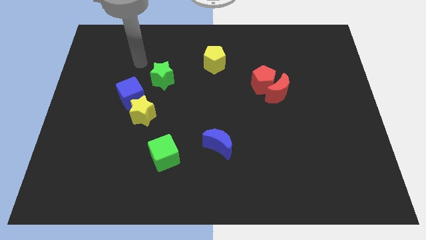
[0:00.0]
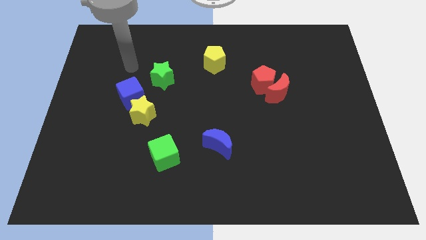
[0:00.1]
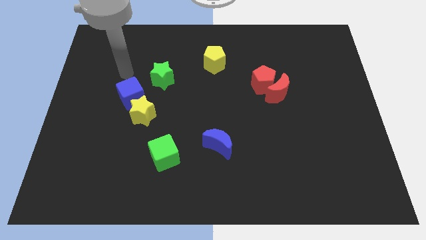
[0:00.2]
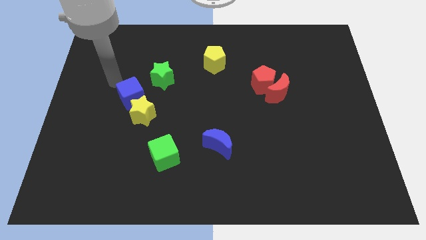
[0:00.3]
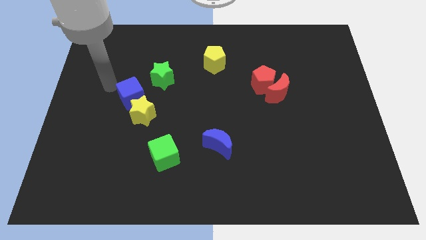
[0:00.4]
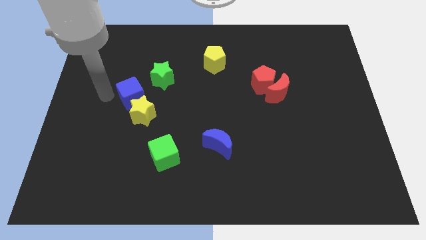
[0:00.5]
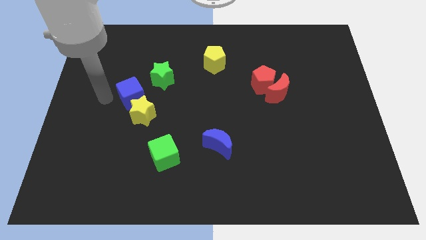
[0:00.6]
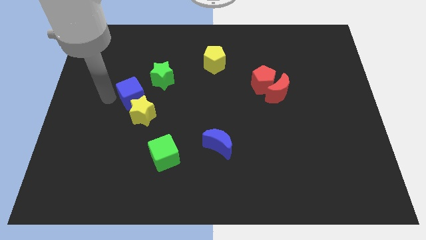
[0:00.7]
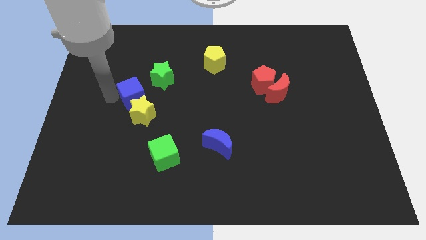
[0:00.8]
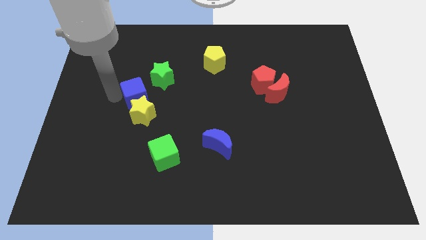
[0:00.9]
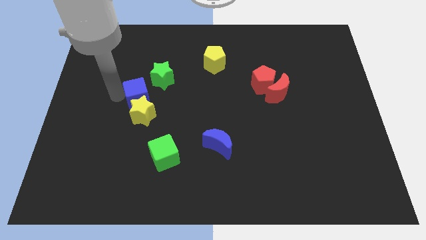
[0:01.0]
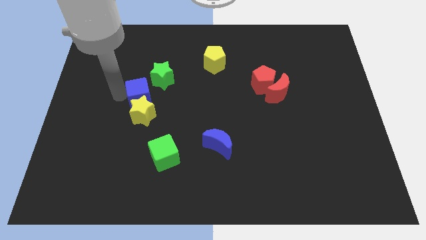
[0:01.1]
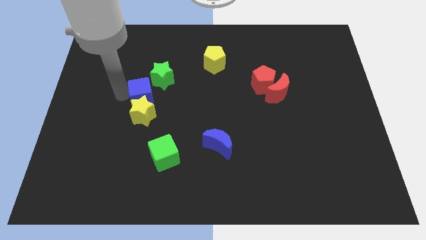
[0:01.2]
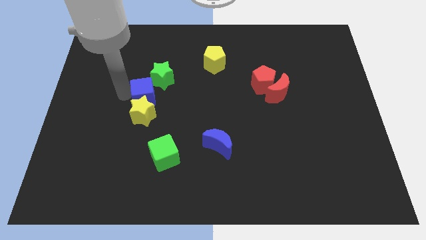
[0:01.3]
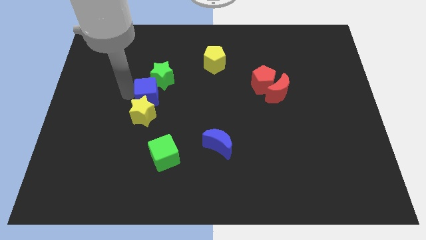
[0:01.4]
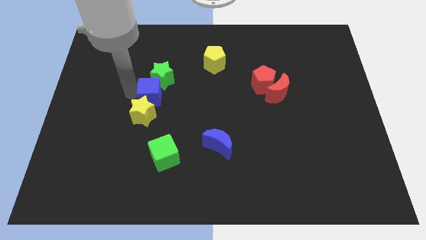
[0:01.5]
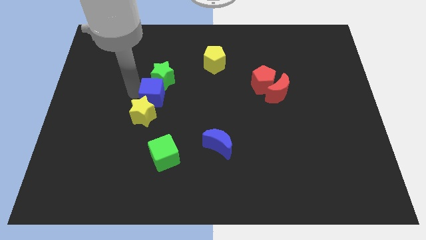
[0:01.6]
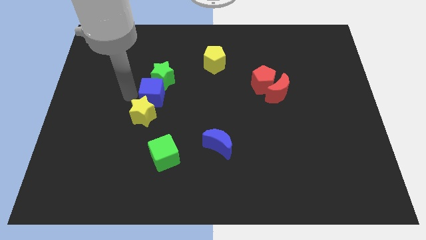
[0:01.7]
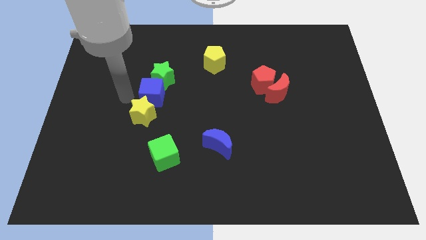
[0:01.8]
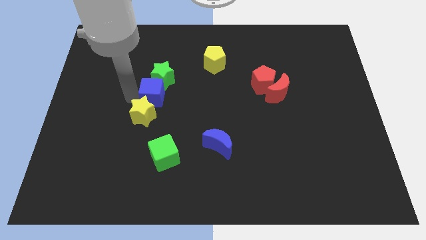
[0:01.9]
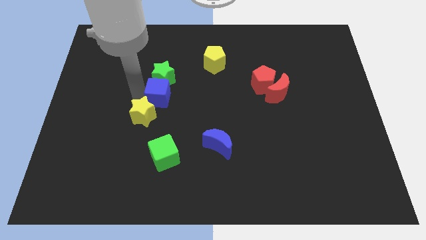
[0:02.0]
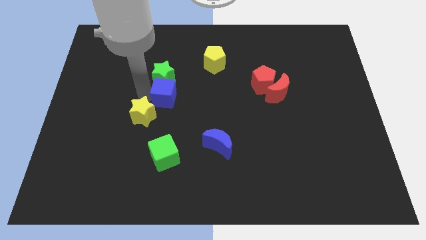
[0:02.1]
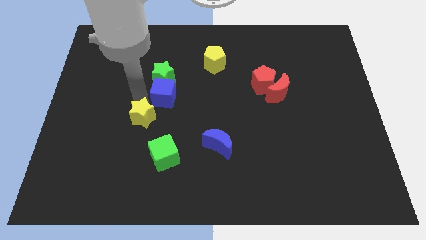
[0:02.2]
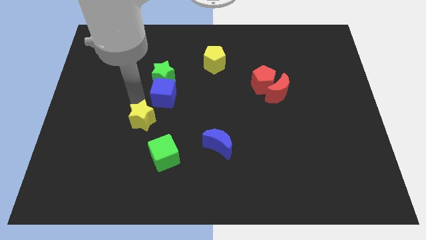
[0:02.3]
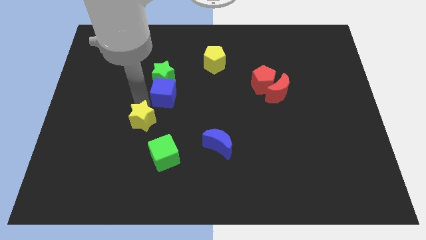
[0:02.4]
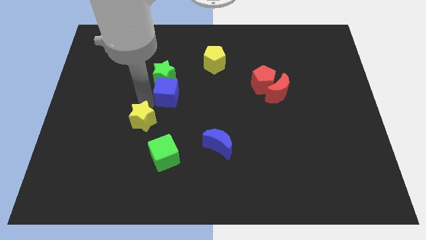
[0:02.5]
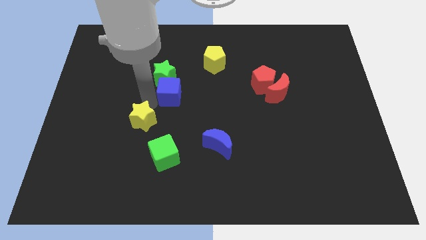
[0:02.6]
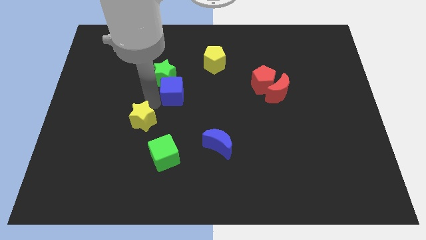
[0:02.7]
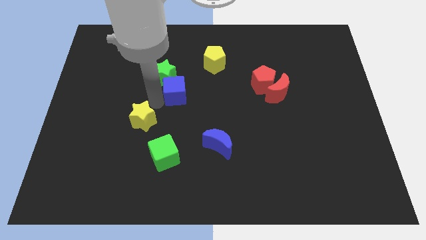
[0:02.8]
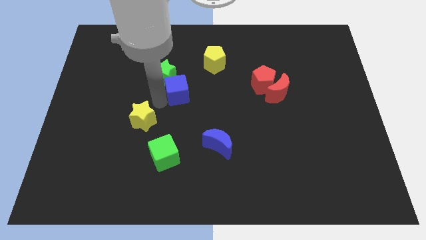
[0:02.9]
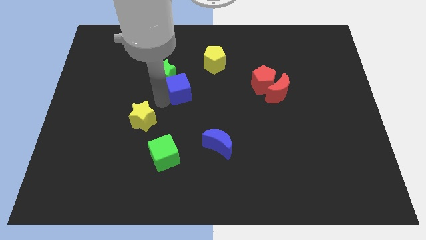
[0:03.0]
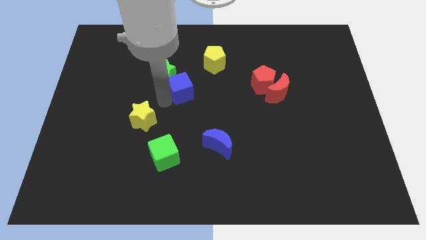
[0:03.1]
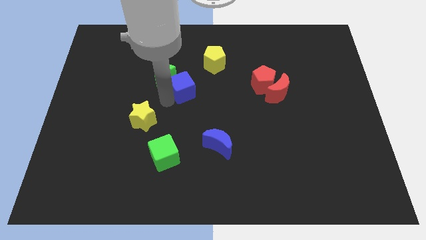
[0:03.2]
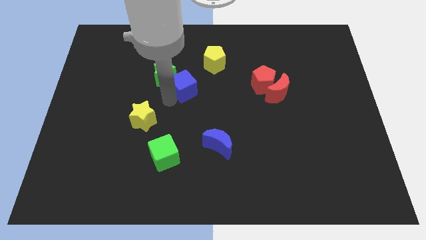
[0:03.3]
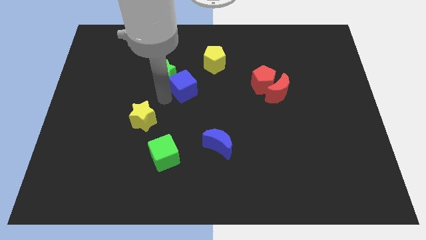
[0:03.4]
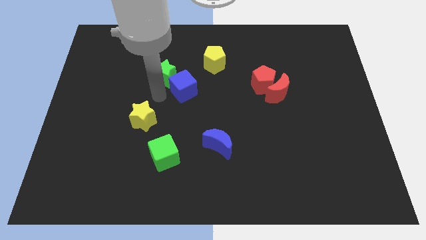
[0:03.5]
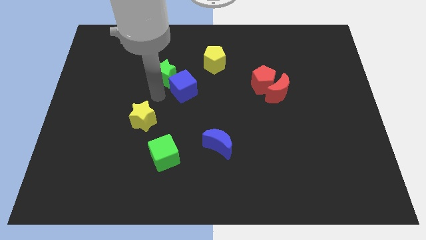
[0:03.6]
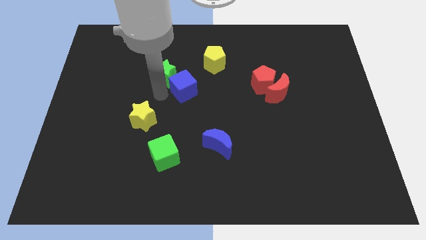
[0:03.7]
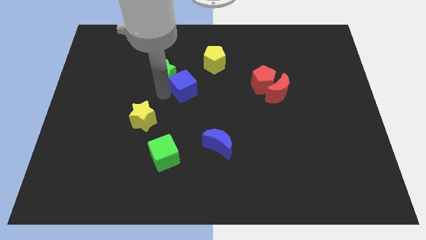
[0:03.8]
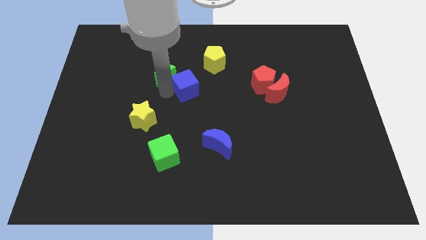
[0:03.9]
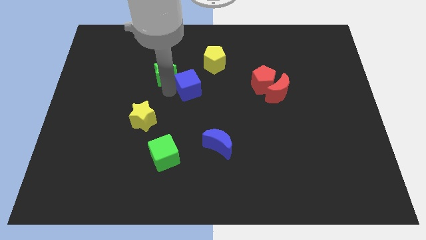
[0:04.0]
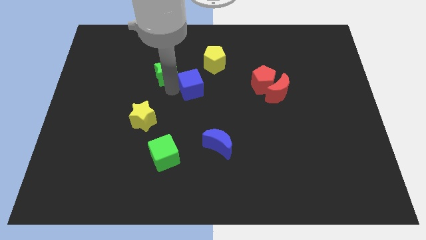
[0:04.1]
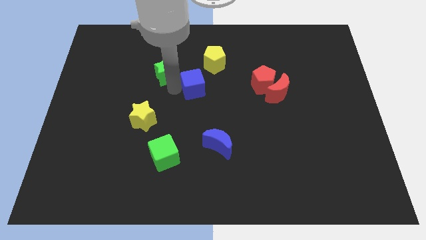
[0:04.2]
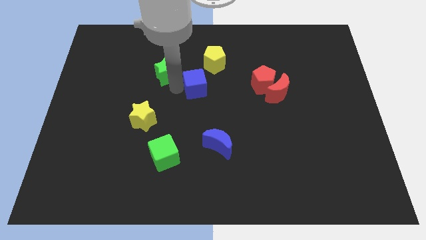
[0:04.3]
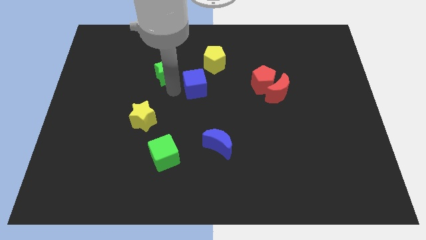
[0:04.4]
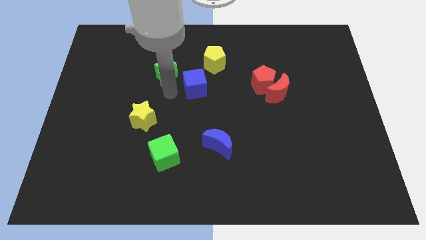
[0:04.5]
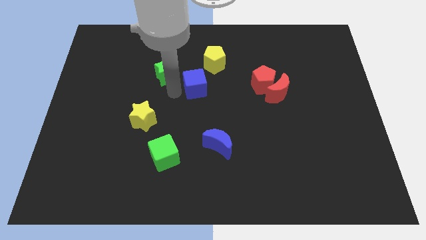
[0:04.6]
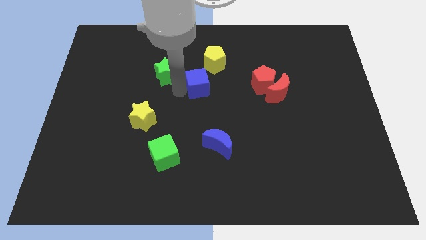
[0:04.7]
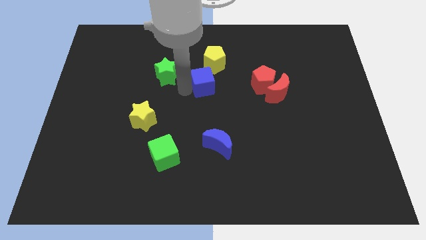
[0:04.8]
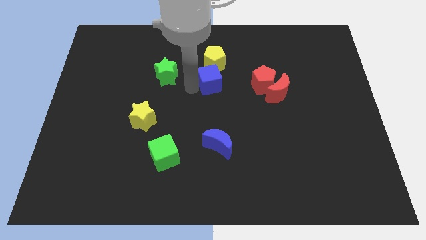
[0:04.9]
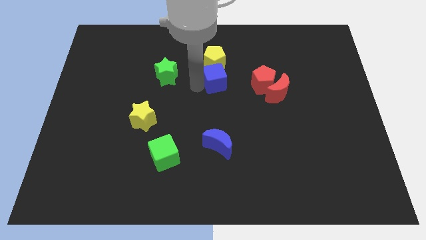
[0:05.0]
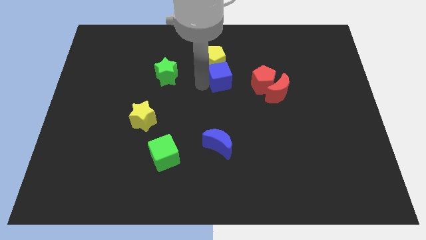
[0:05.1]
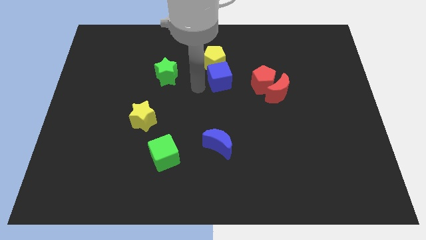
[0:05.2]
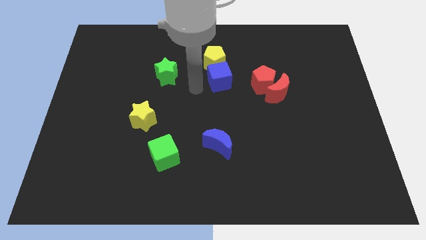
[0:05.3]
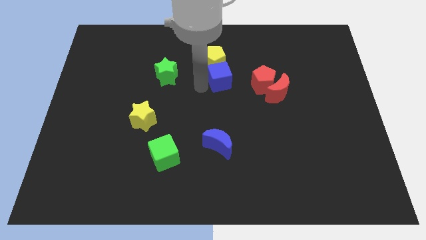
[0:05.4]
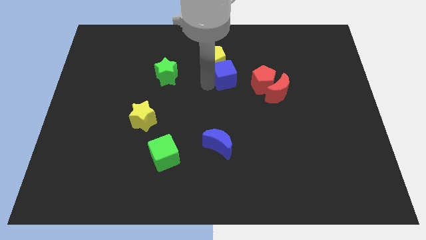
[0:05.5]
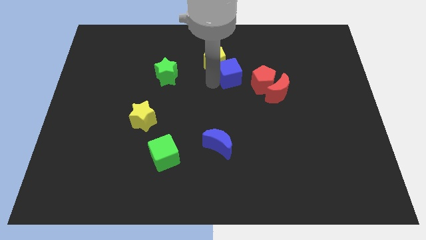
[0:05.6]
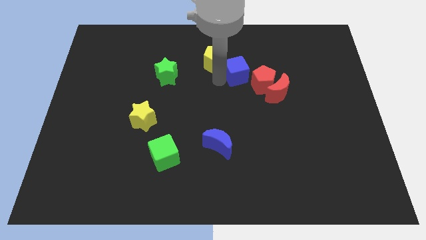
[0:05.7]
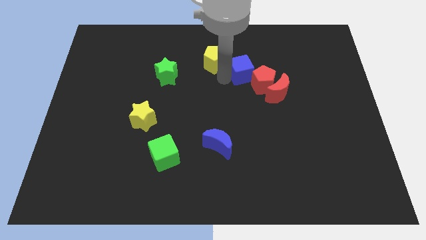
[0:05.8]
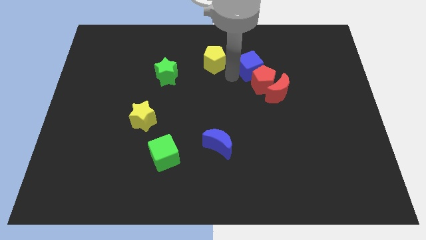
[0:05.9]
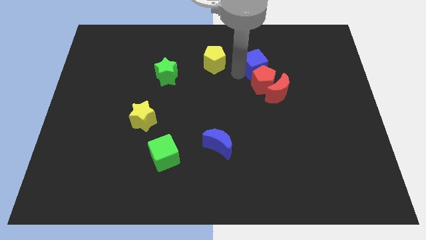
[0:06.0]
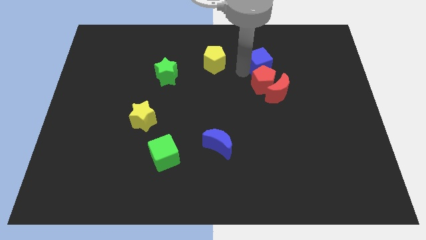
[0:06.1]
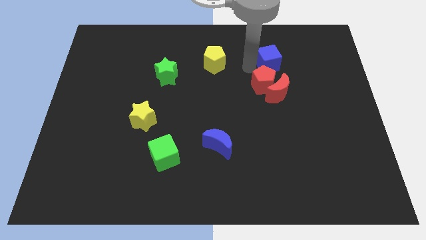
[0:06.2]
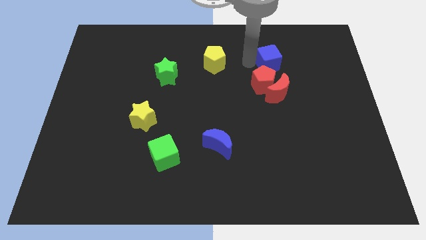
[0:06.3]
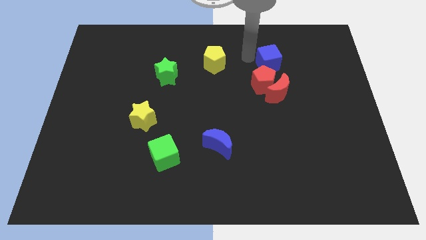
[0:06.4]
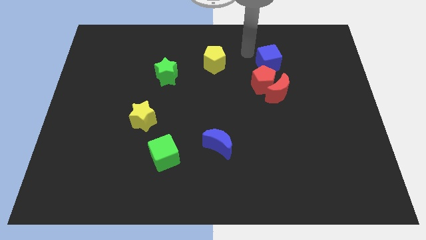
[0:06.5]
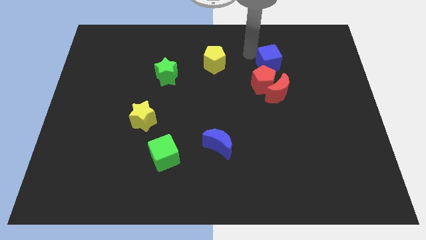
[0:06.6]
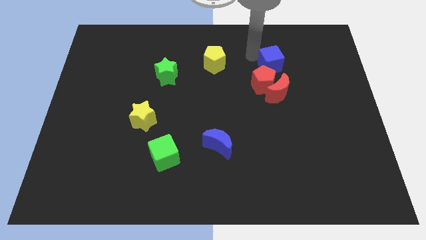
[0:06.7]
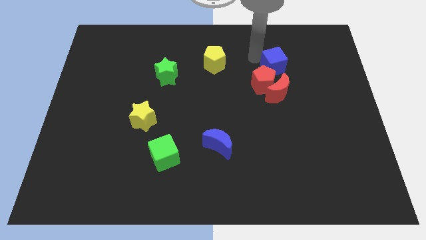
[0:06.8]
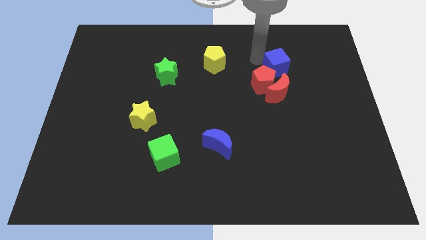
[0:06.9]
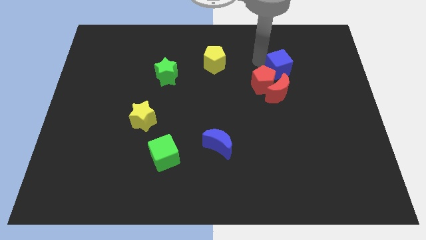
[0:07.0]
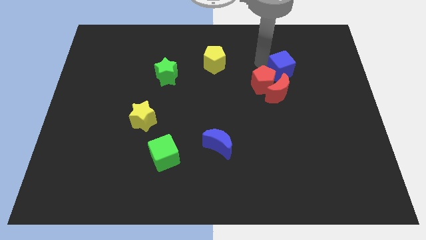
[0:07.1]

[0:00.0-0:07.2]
slide the blue cube diagonally up and to the right of the red moon
